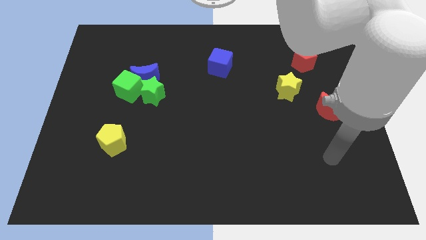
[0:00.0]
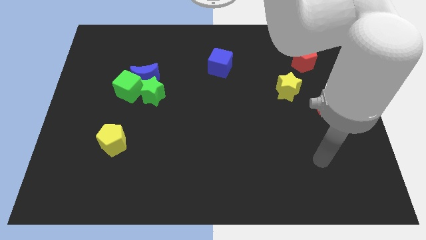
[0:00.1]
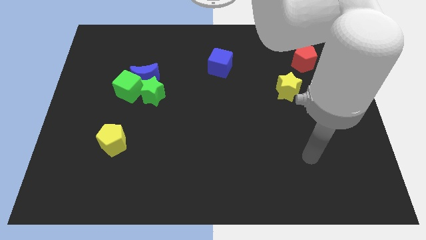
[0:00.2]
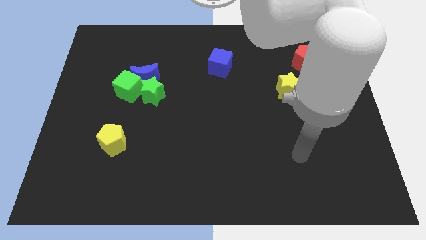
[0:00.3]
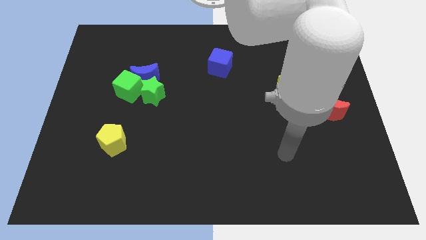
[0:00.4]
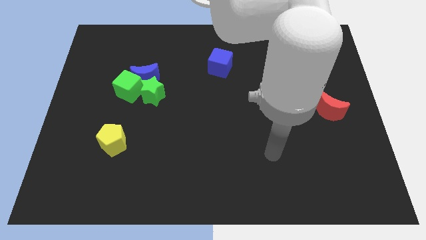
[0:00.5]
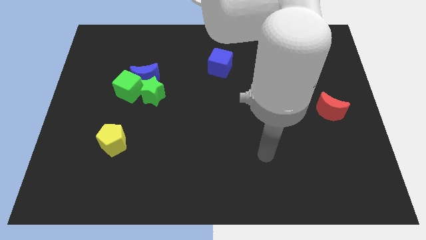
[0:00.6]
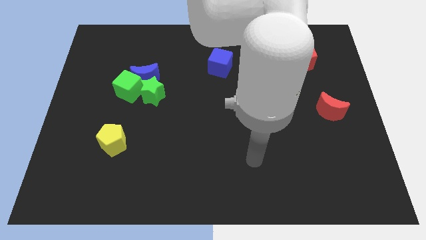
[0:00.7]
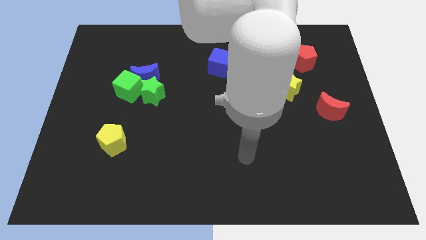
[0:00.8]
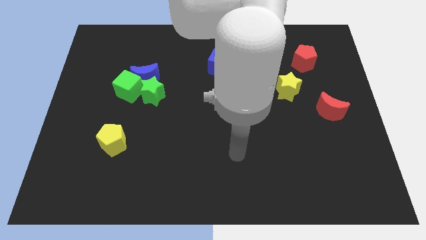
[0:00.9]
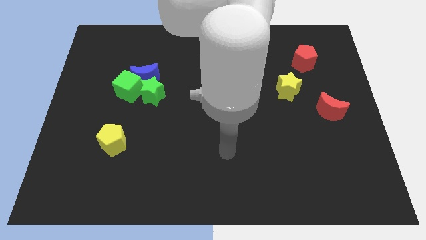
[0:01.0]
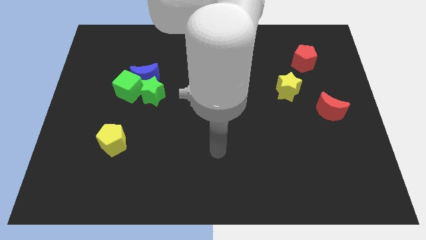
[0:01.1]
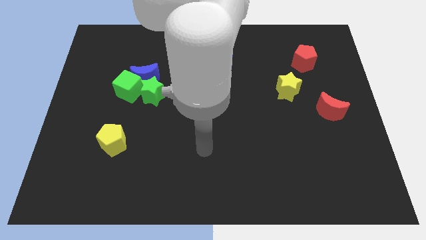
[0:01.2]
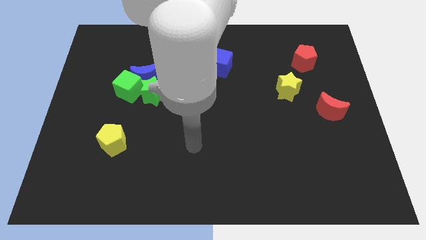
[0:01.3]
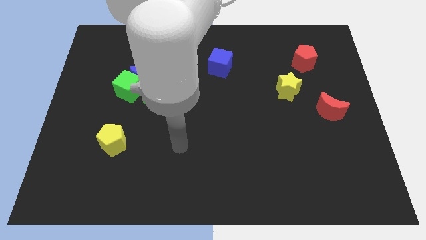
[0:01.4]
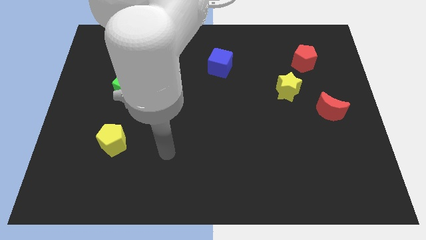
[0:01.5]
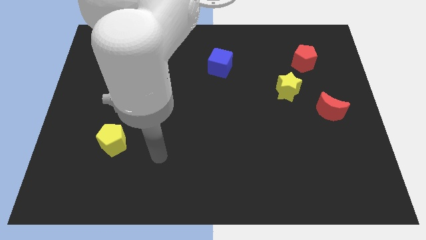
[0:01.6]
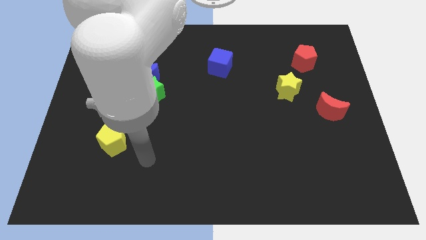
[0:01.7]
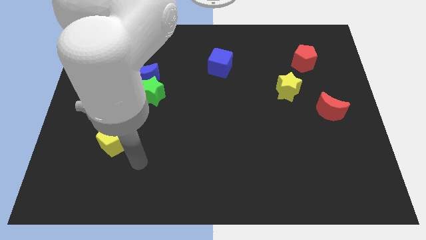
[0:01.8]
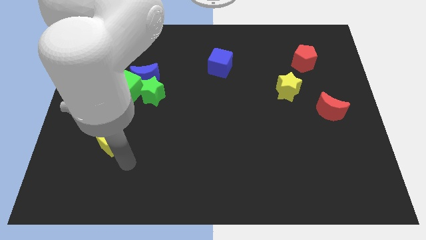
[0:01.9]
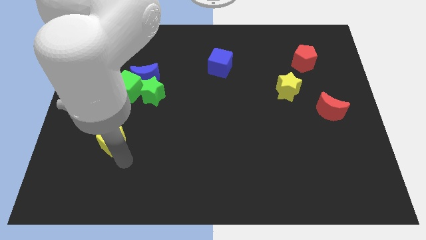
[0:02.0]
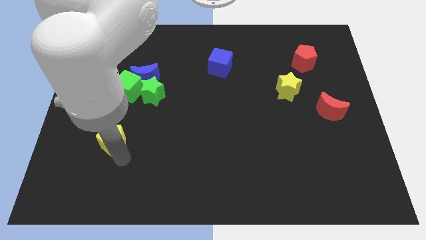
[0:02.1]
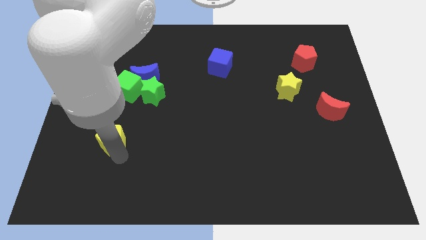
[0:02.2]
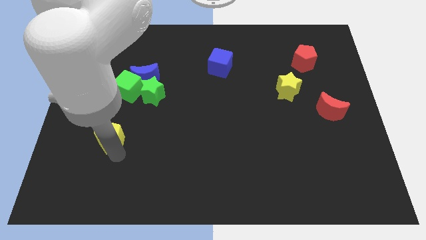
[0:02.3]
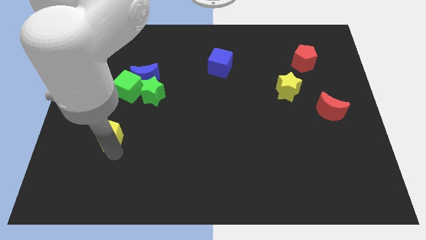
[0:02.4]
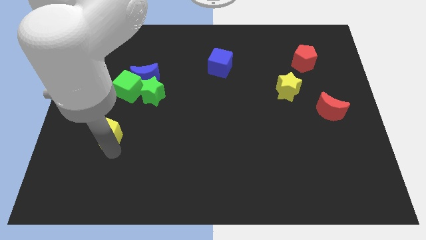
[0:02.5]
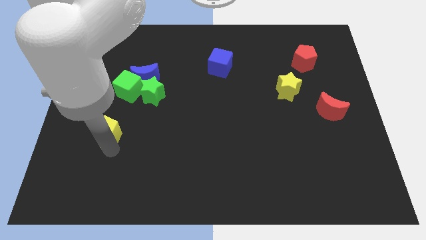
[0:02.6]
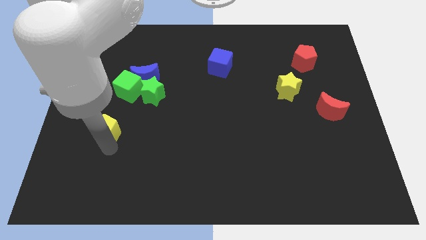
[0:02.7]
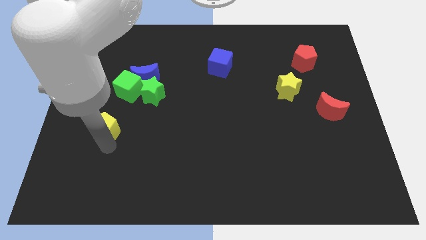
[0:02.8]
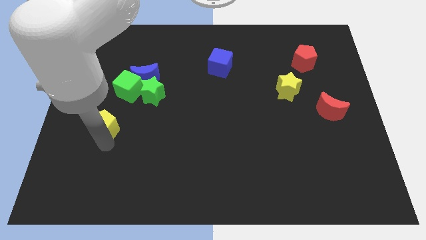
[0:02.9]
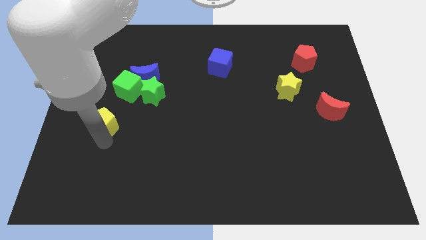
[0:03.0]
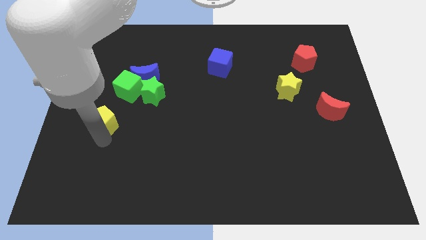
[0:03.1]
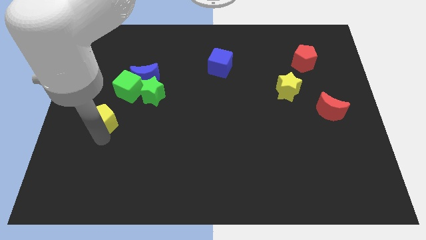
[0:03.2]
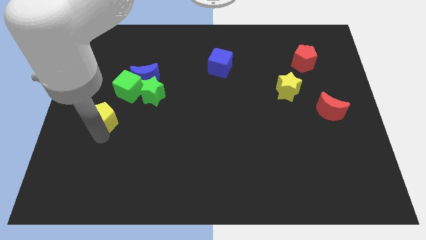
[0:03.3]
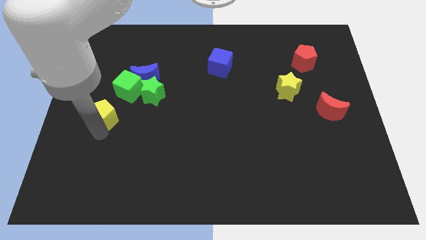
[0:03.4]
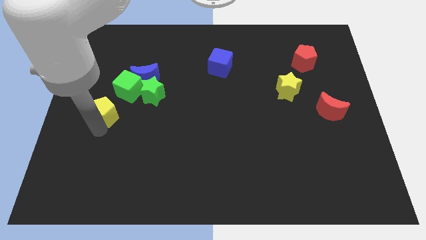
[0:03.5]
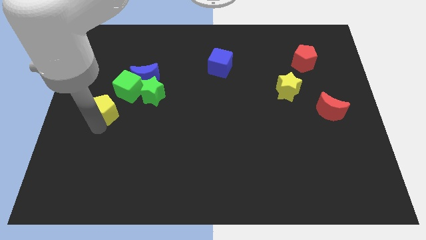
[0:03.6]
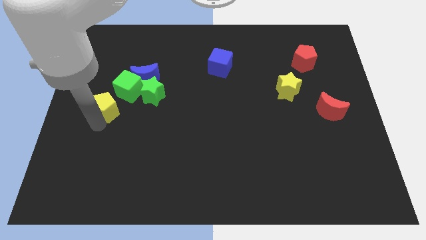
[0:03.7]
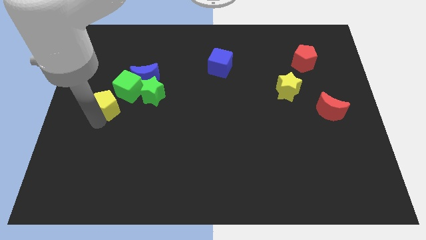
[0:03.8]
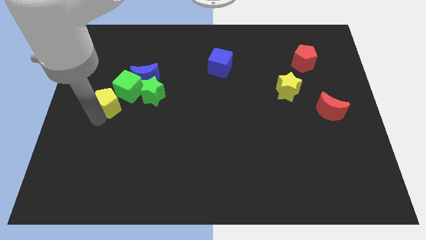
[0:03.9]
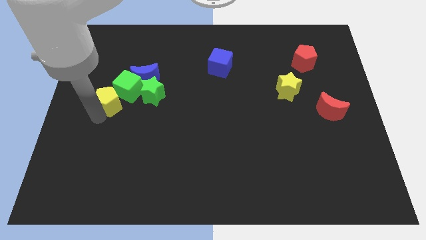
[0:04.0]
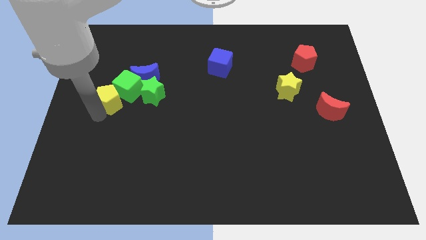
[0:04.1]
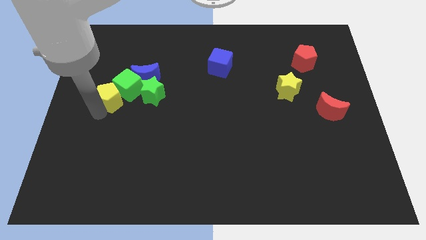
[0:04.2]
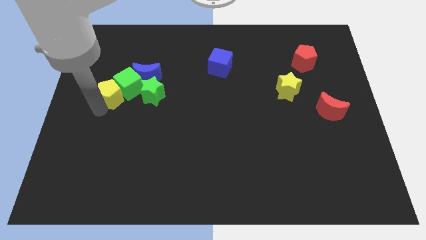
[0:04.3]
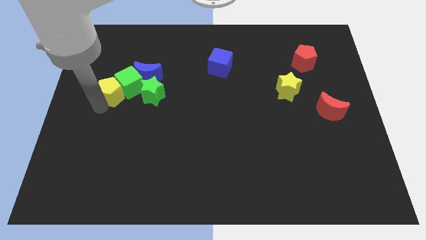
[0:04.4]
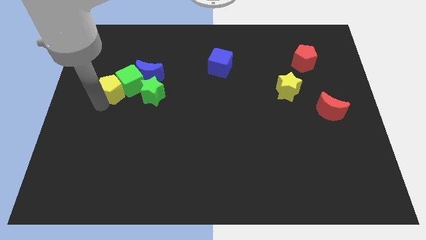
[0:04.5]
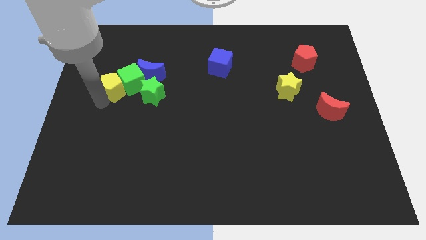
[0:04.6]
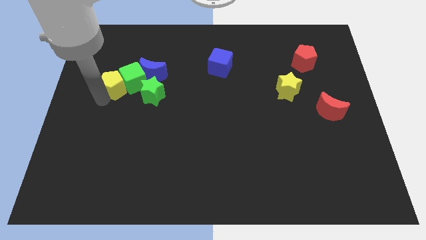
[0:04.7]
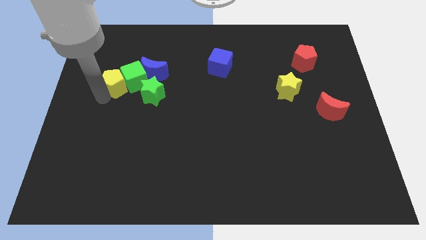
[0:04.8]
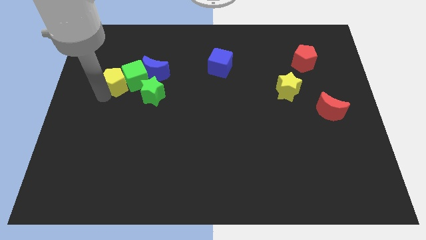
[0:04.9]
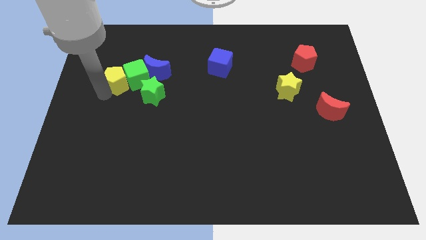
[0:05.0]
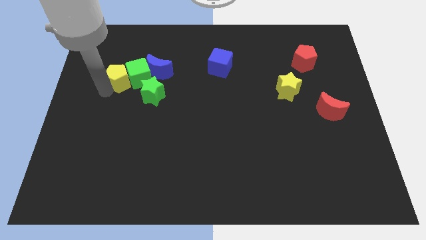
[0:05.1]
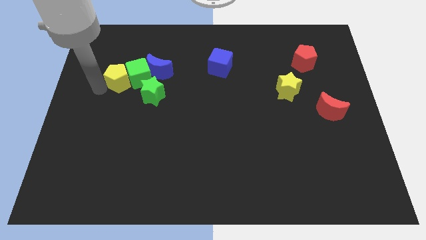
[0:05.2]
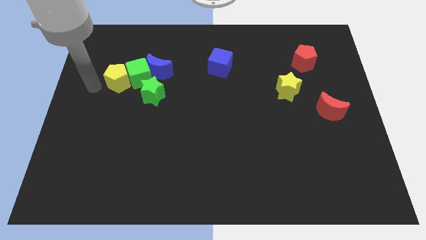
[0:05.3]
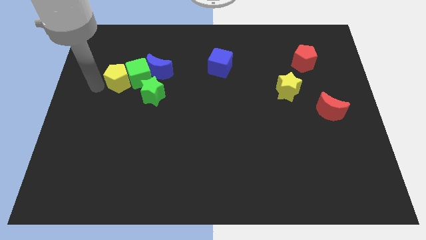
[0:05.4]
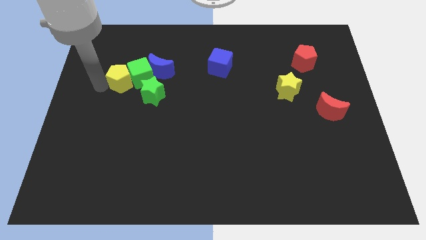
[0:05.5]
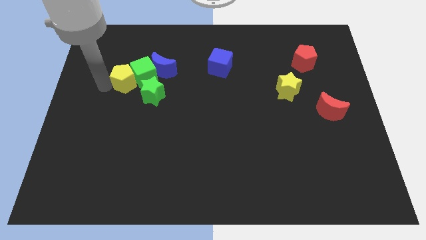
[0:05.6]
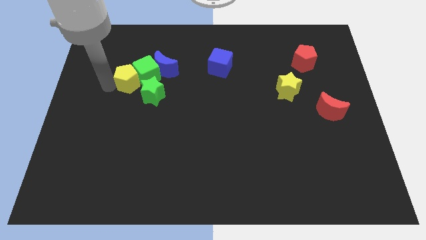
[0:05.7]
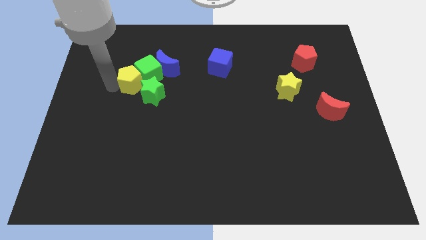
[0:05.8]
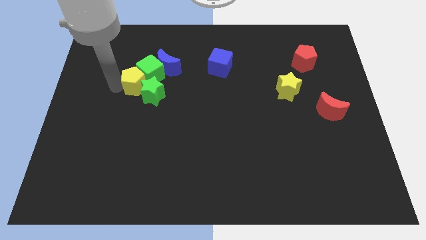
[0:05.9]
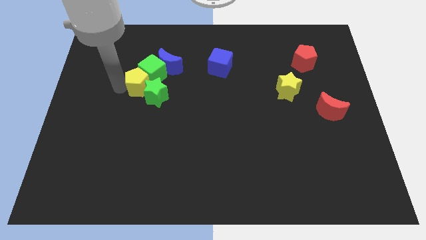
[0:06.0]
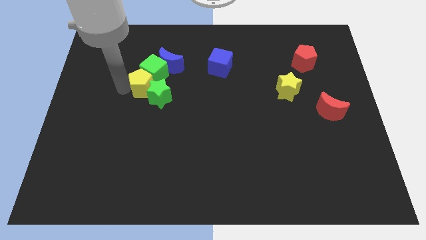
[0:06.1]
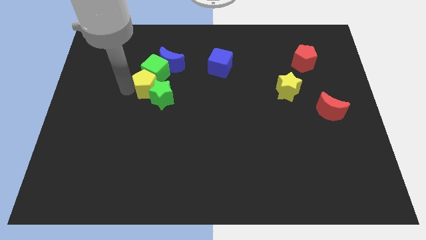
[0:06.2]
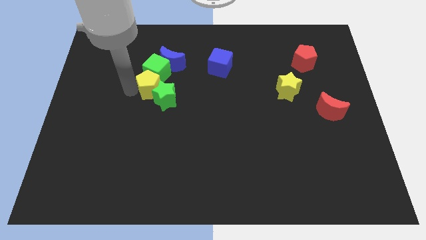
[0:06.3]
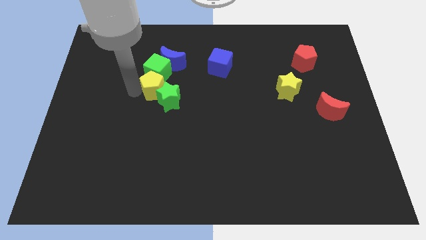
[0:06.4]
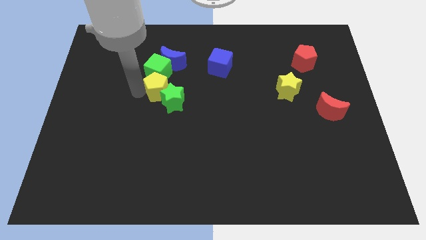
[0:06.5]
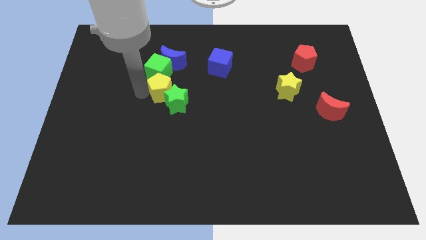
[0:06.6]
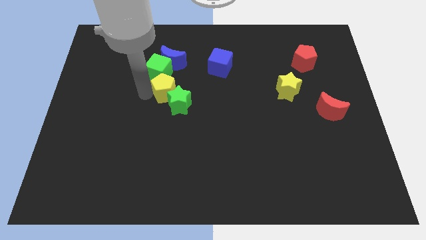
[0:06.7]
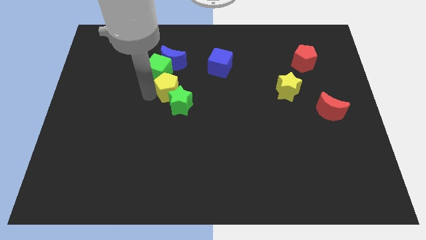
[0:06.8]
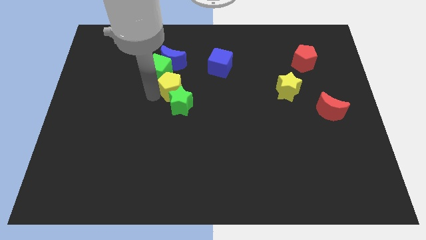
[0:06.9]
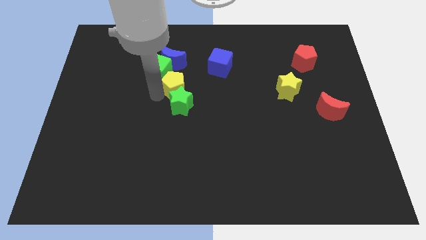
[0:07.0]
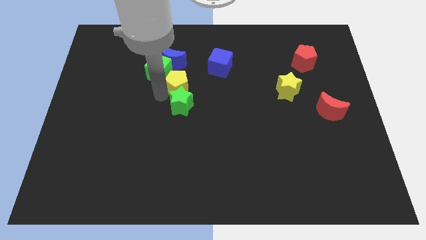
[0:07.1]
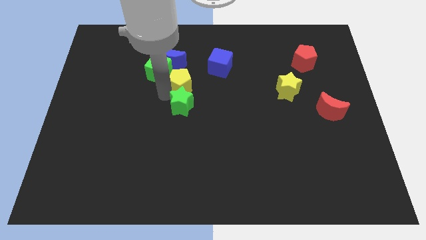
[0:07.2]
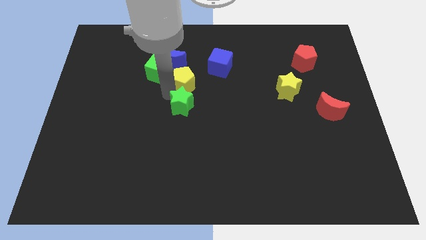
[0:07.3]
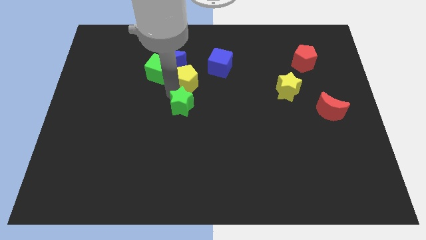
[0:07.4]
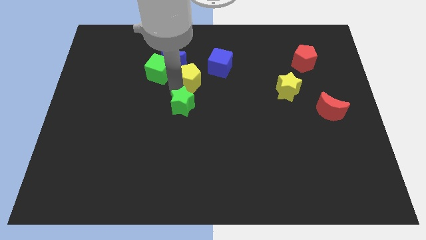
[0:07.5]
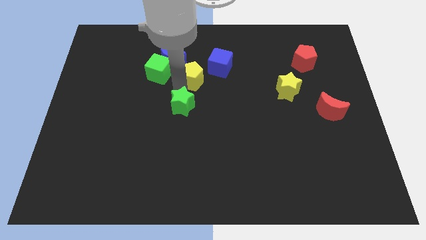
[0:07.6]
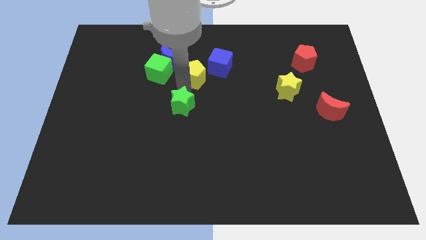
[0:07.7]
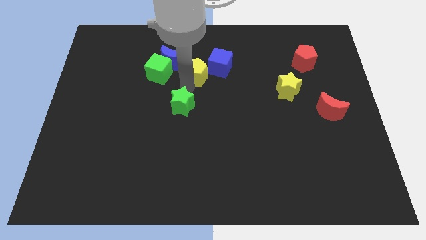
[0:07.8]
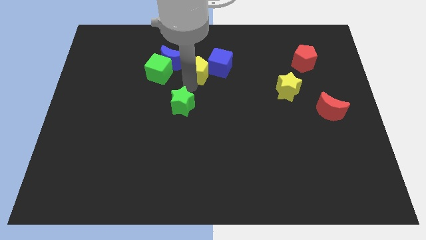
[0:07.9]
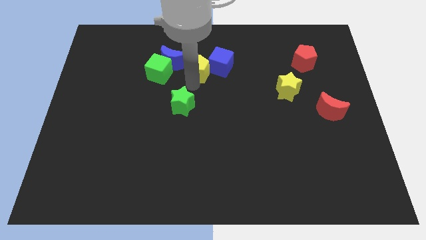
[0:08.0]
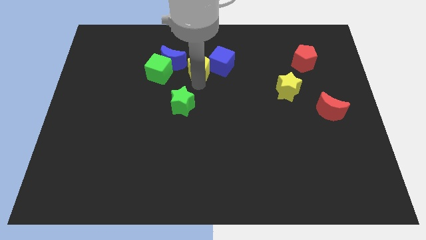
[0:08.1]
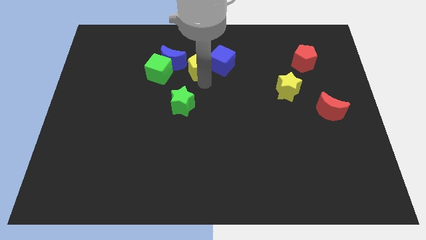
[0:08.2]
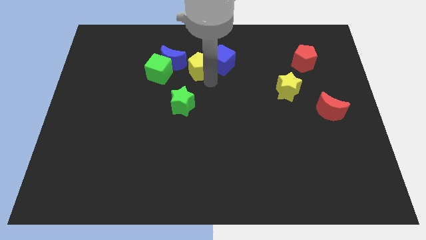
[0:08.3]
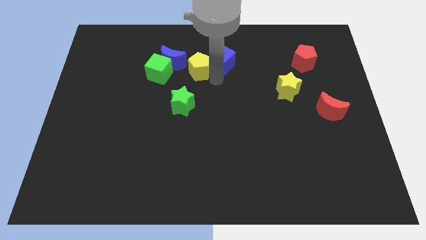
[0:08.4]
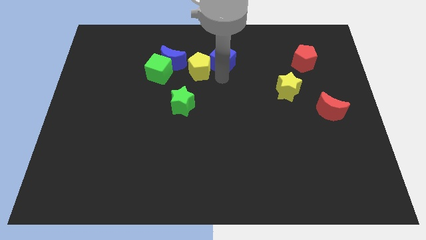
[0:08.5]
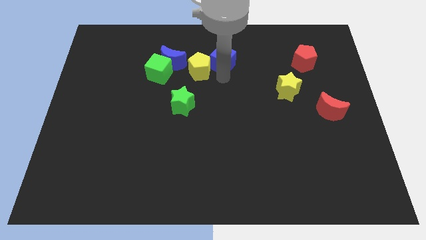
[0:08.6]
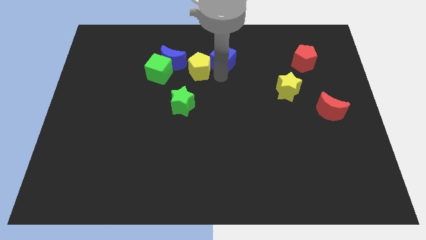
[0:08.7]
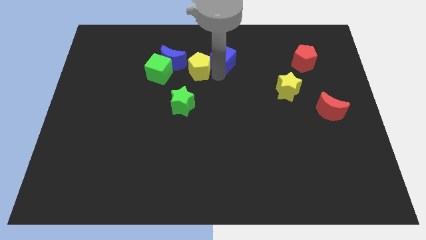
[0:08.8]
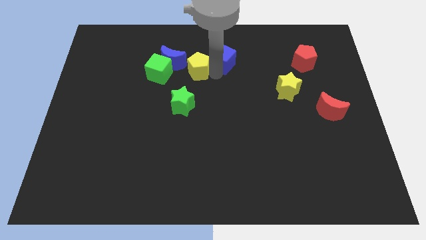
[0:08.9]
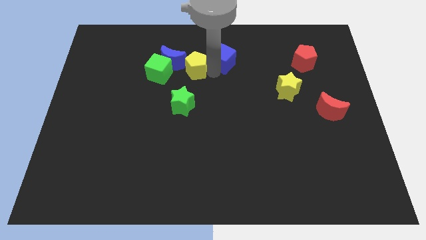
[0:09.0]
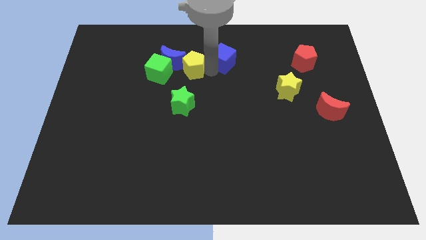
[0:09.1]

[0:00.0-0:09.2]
put the yellow pentagon close to the blue moon
